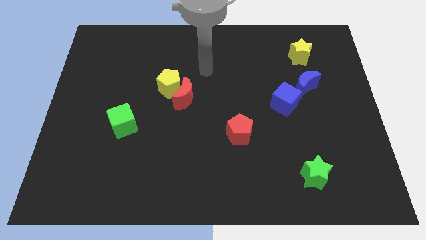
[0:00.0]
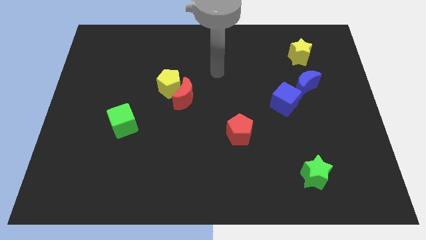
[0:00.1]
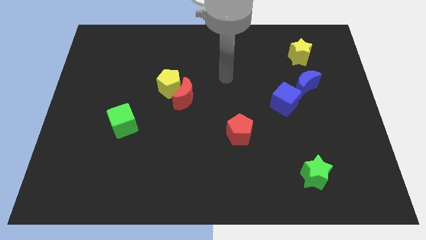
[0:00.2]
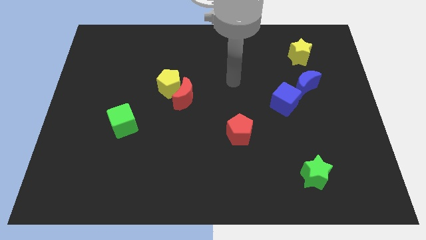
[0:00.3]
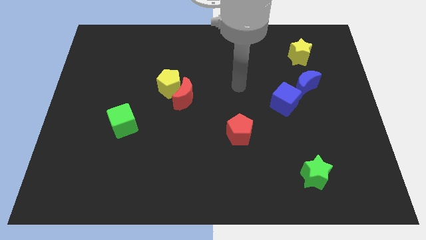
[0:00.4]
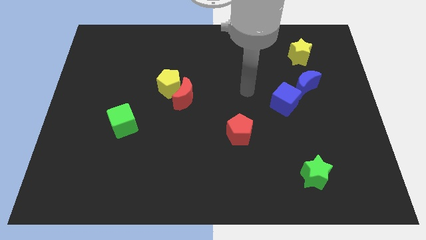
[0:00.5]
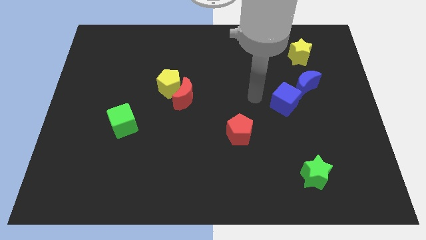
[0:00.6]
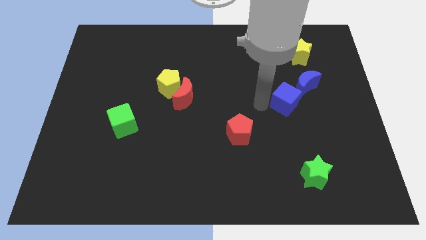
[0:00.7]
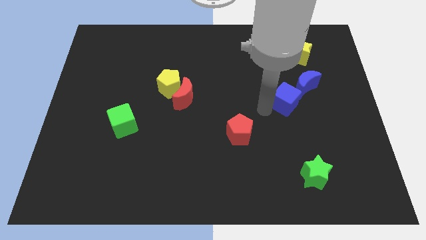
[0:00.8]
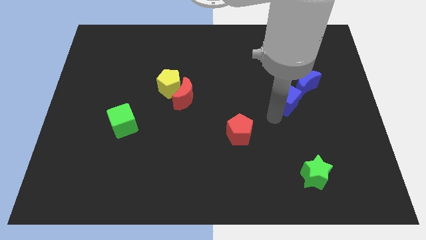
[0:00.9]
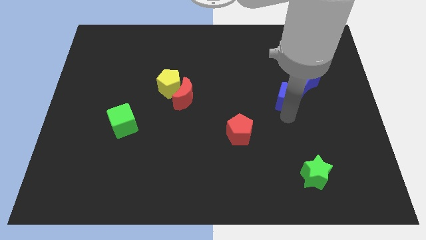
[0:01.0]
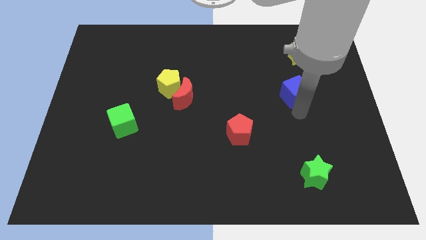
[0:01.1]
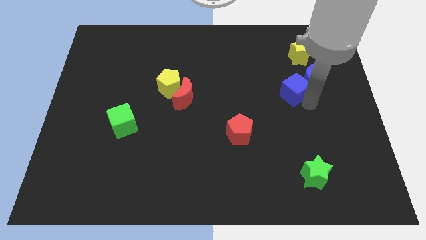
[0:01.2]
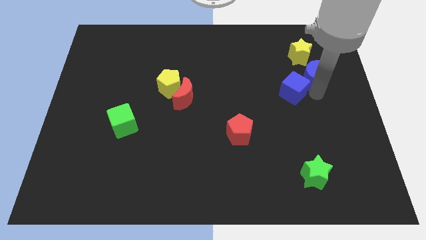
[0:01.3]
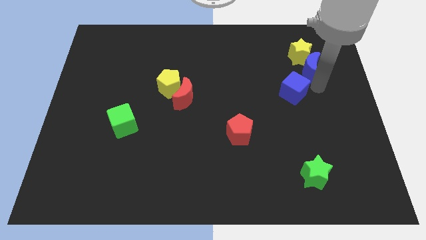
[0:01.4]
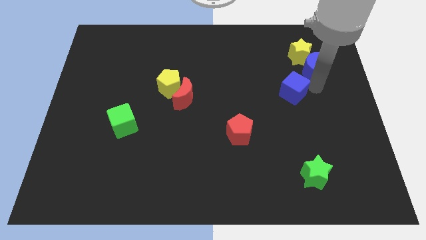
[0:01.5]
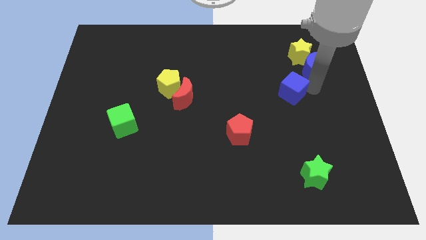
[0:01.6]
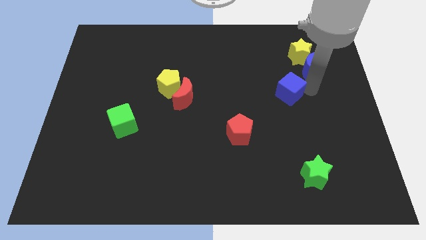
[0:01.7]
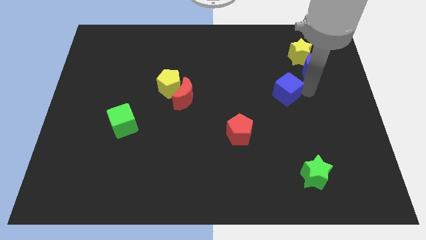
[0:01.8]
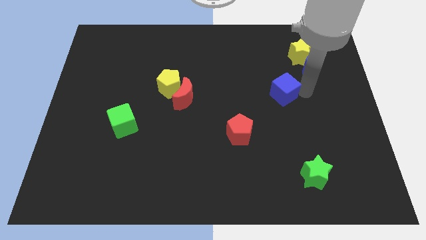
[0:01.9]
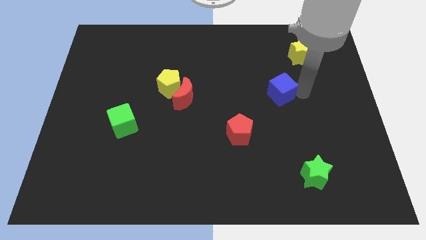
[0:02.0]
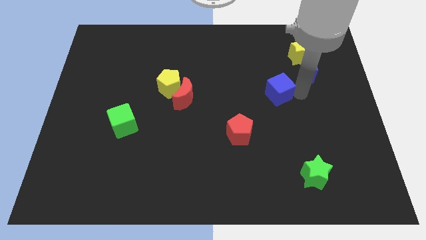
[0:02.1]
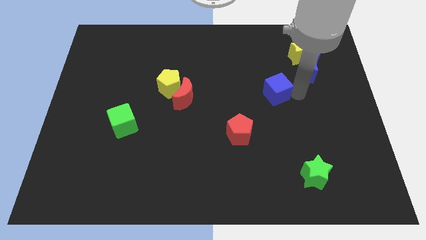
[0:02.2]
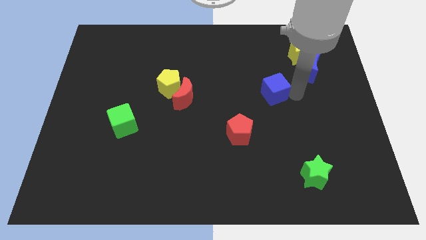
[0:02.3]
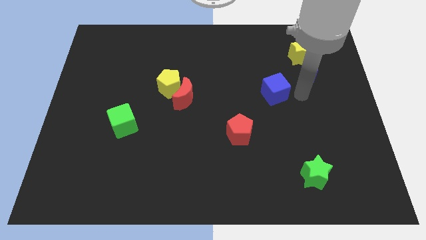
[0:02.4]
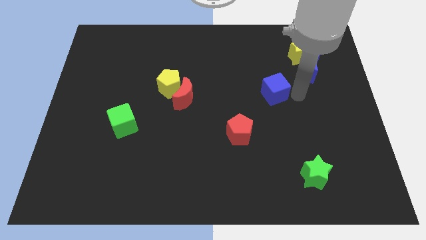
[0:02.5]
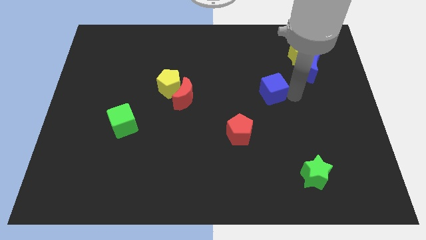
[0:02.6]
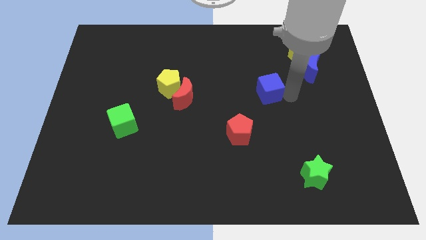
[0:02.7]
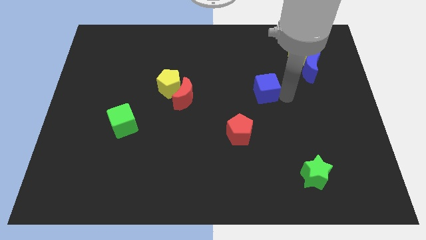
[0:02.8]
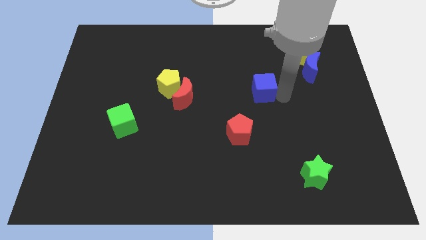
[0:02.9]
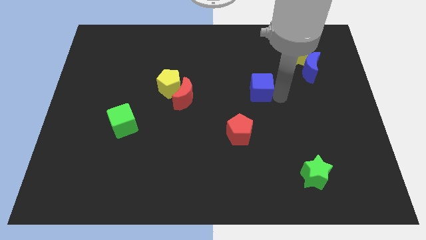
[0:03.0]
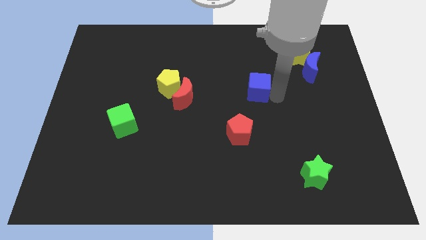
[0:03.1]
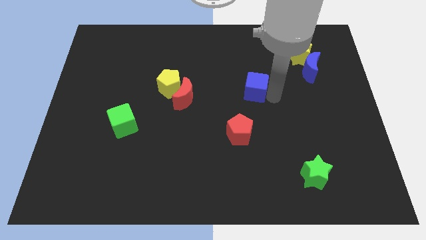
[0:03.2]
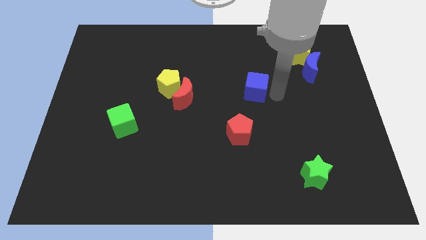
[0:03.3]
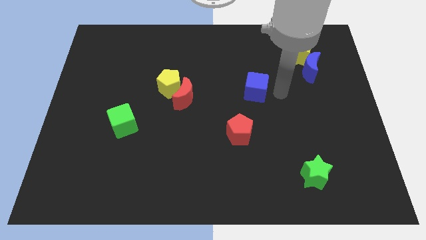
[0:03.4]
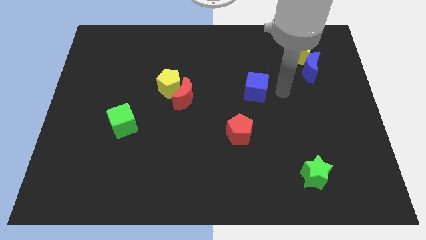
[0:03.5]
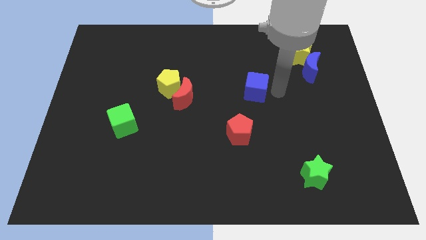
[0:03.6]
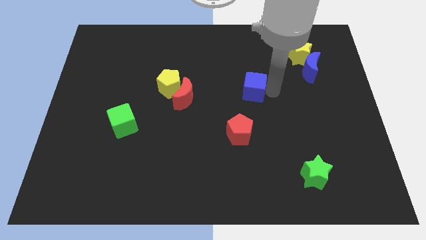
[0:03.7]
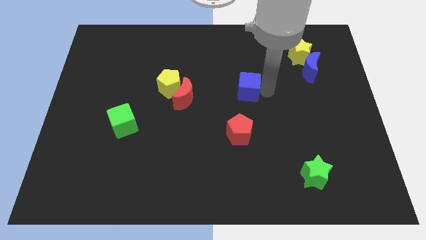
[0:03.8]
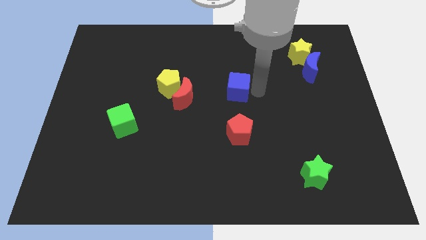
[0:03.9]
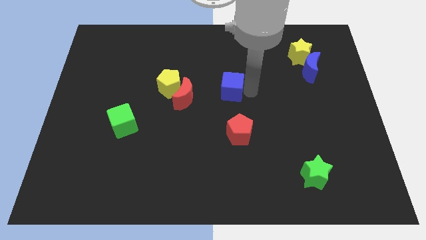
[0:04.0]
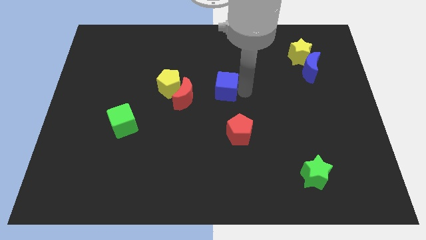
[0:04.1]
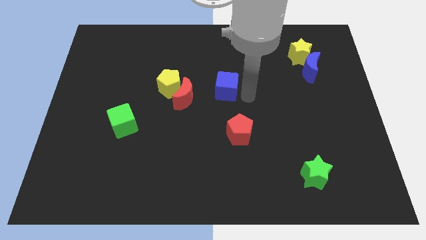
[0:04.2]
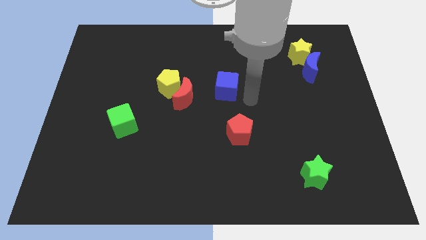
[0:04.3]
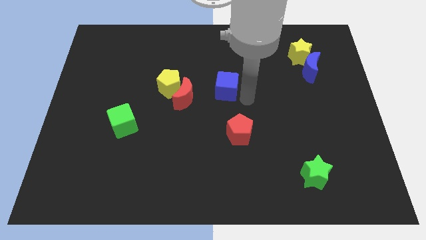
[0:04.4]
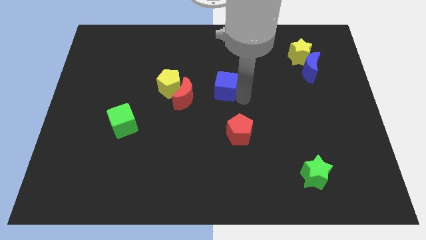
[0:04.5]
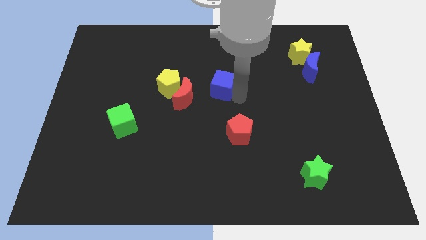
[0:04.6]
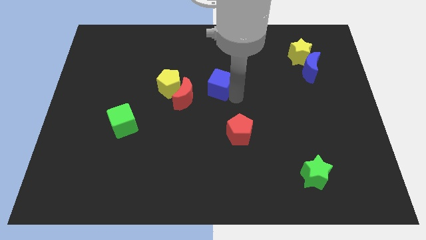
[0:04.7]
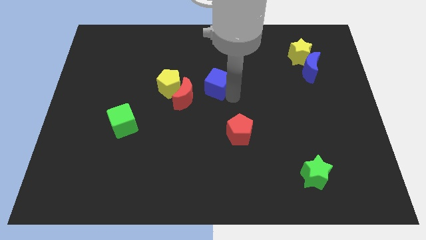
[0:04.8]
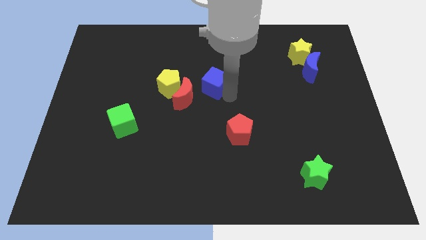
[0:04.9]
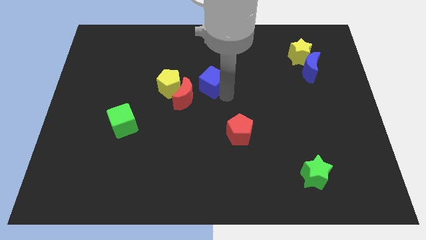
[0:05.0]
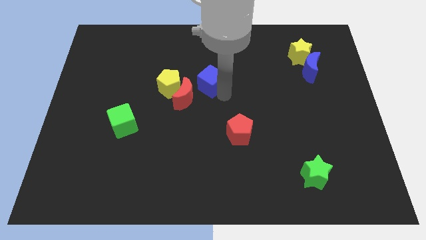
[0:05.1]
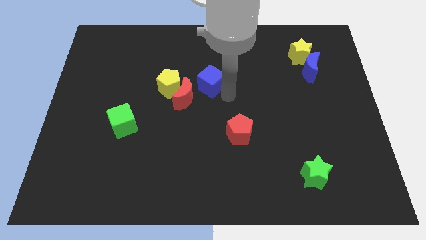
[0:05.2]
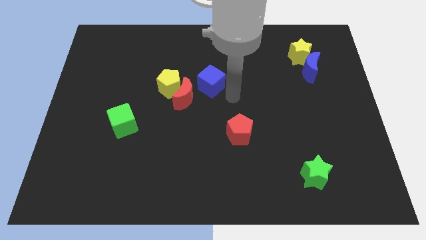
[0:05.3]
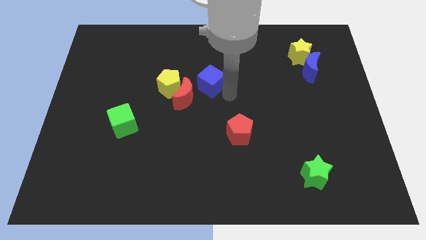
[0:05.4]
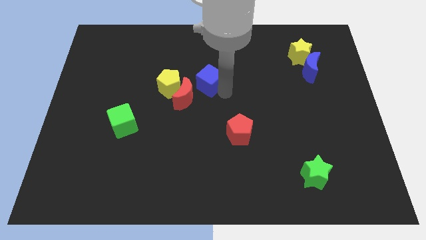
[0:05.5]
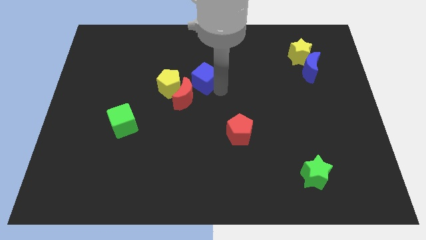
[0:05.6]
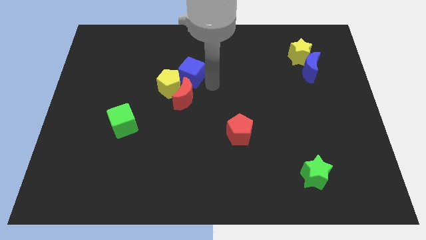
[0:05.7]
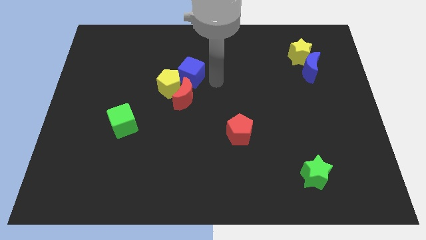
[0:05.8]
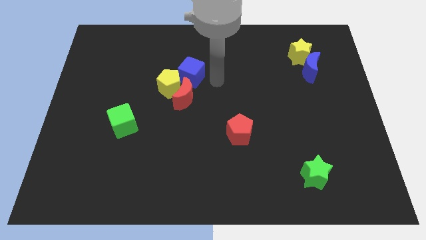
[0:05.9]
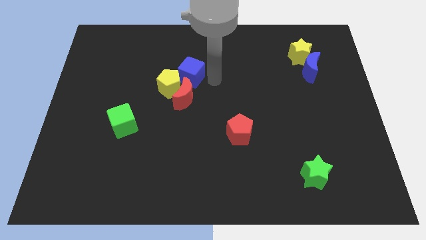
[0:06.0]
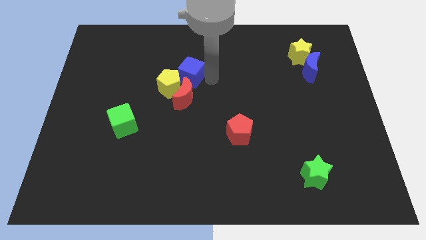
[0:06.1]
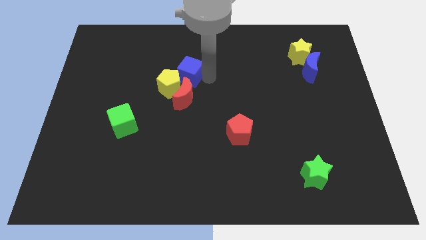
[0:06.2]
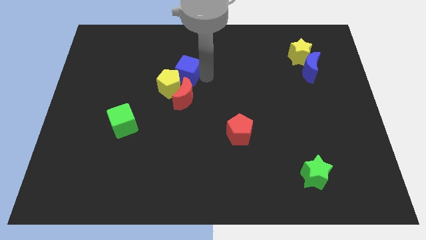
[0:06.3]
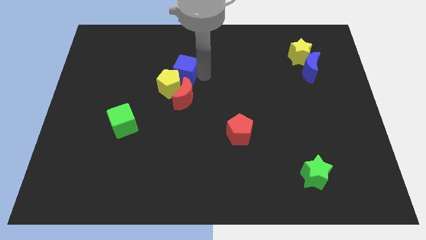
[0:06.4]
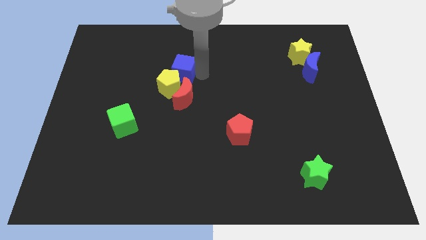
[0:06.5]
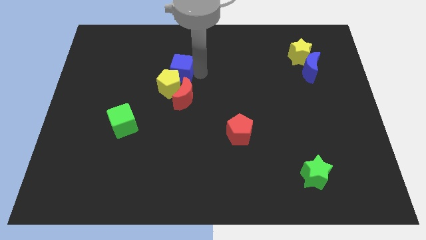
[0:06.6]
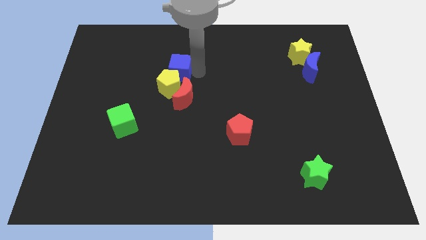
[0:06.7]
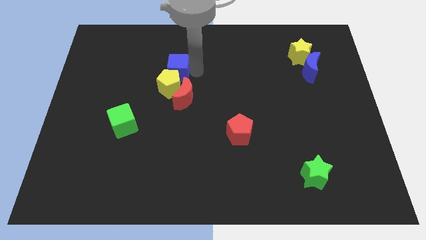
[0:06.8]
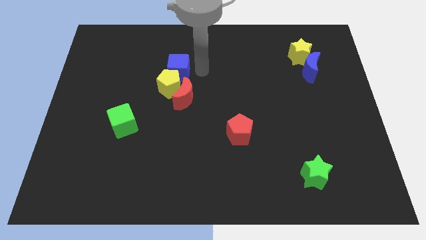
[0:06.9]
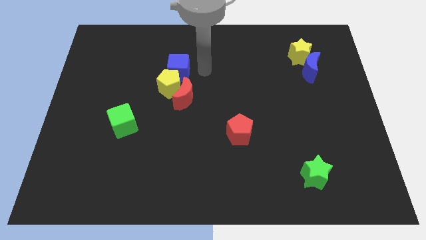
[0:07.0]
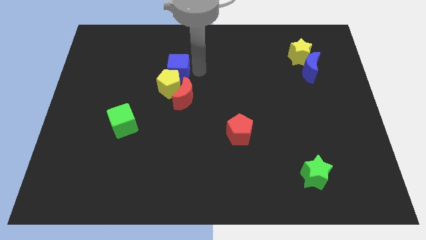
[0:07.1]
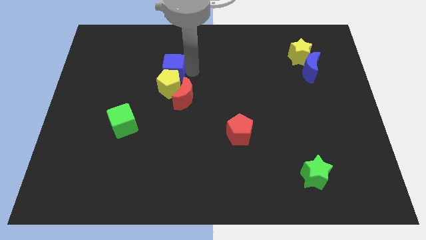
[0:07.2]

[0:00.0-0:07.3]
slide the blue cube to the top left side of the yellow pentagon
